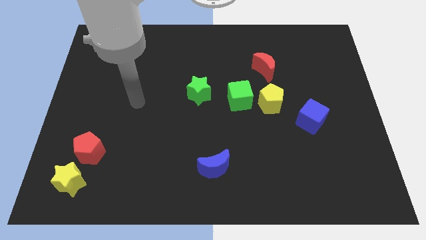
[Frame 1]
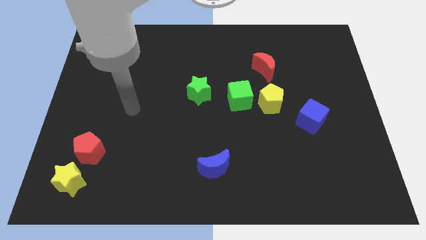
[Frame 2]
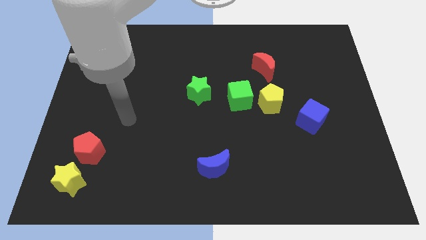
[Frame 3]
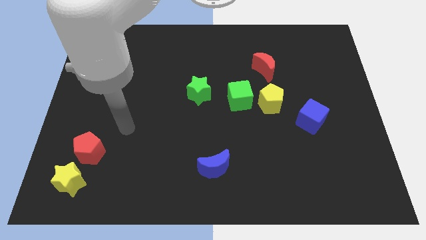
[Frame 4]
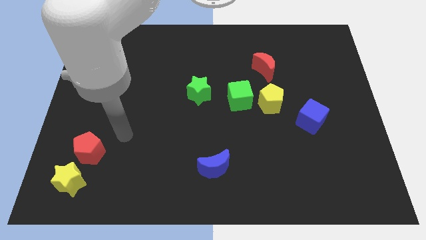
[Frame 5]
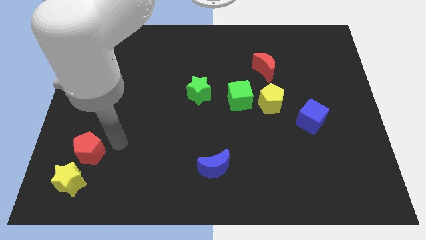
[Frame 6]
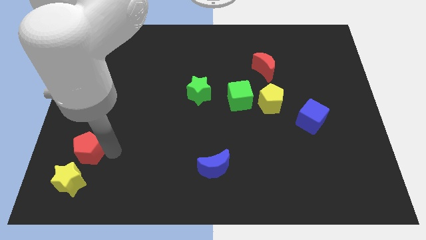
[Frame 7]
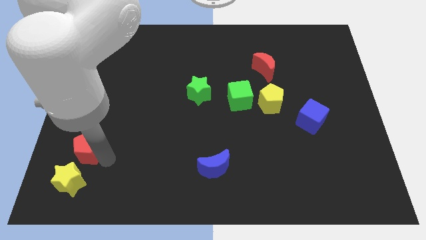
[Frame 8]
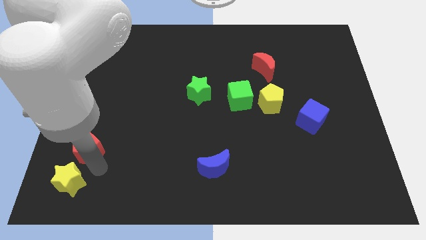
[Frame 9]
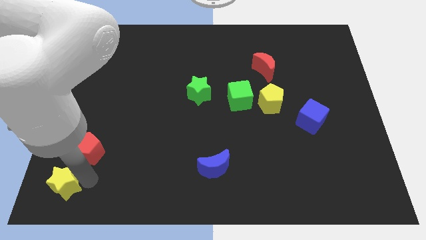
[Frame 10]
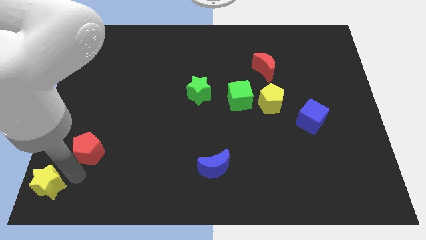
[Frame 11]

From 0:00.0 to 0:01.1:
pull the red pentagon apart from the yellow star

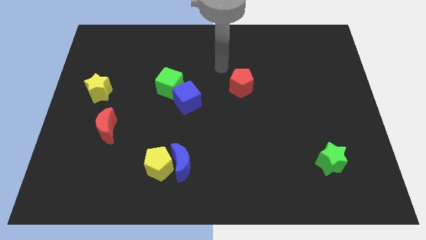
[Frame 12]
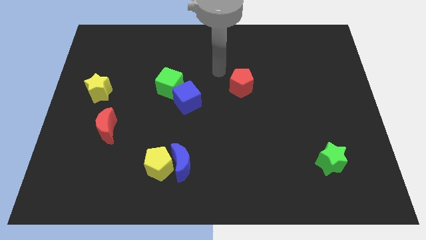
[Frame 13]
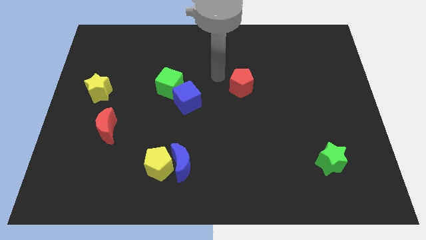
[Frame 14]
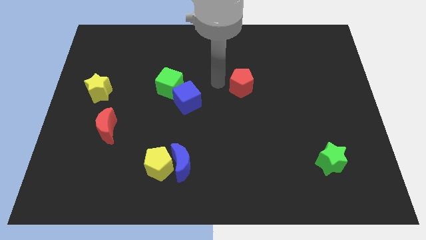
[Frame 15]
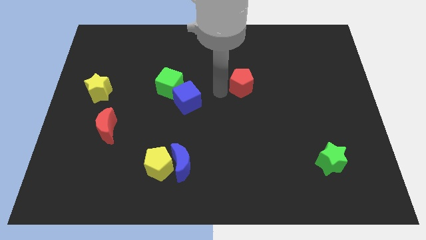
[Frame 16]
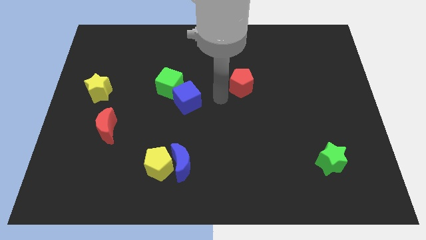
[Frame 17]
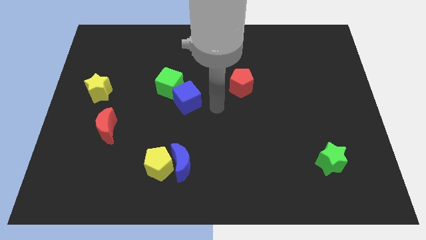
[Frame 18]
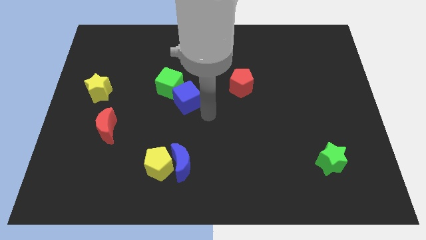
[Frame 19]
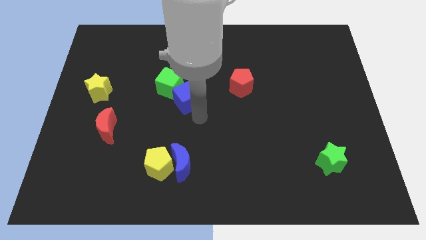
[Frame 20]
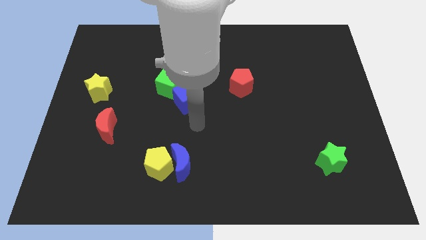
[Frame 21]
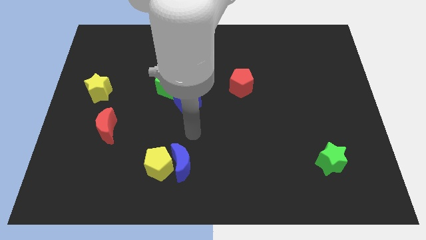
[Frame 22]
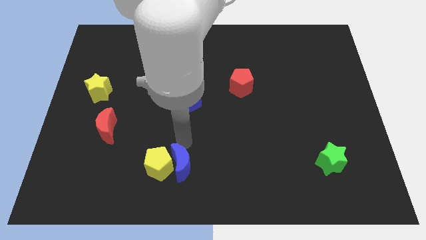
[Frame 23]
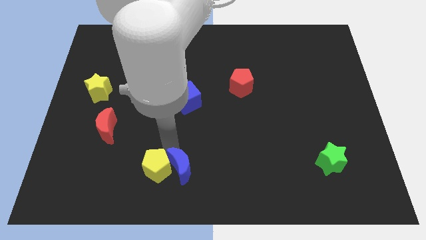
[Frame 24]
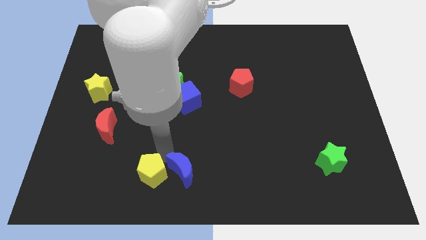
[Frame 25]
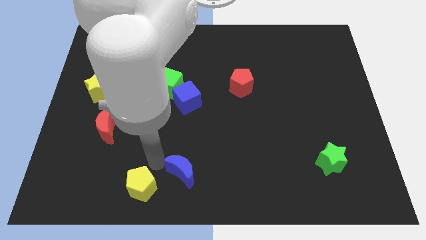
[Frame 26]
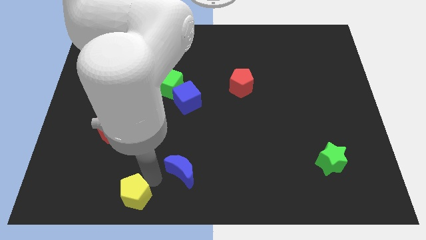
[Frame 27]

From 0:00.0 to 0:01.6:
move the blue moon away from the yellow pentagon

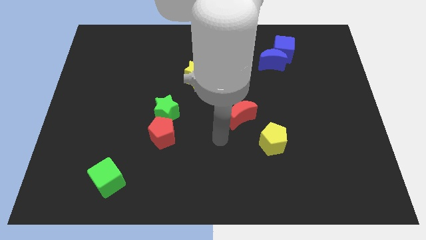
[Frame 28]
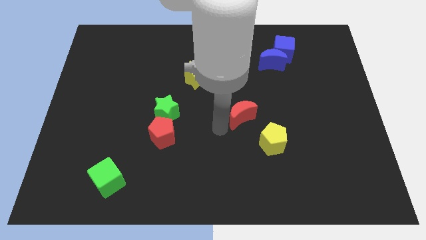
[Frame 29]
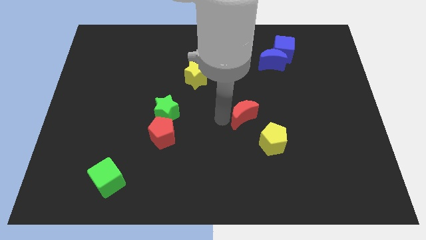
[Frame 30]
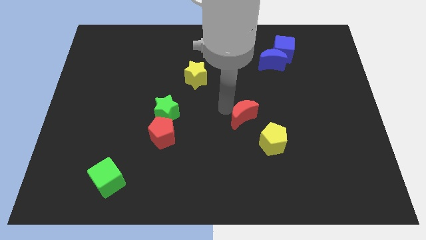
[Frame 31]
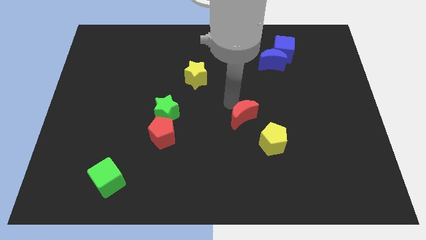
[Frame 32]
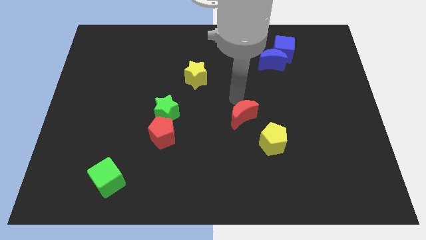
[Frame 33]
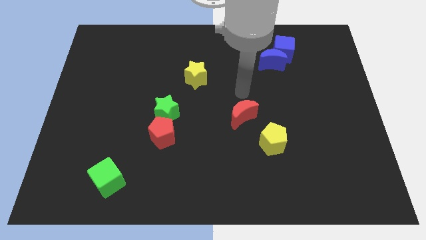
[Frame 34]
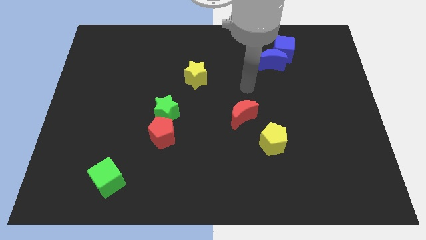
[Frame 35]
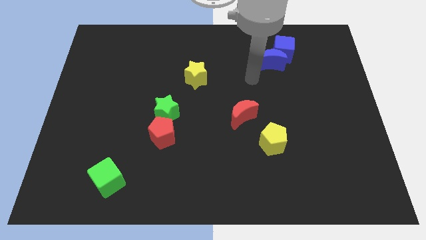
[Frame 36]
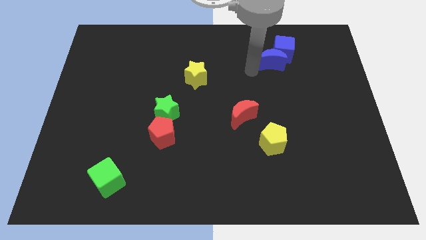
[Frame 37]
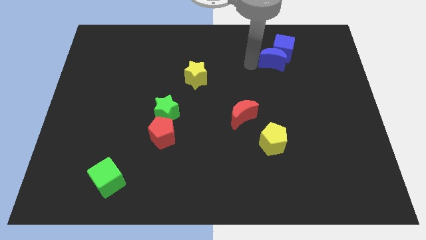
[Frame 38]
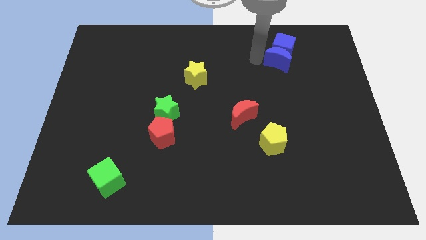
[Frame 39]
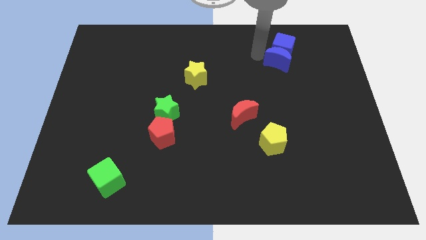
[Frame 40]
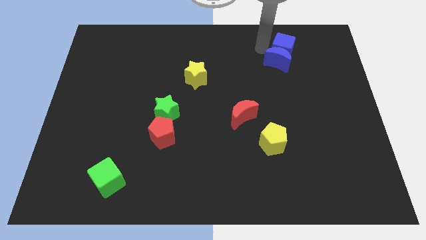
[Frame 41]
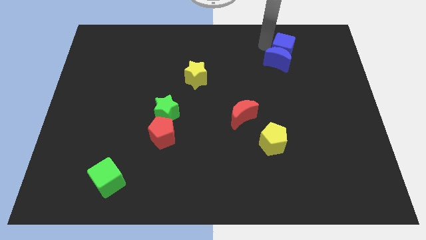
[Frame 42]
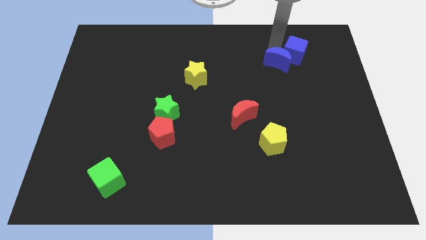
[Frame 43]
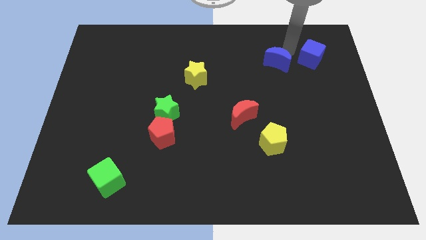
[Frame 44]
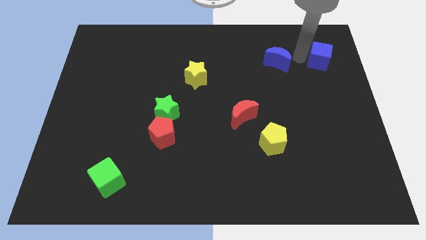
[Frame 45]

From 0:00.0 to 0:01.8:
move the blue moon away from the blue cube

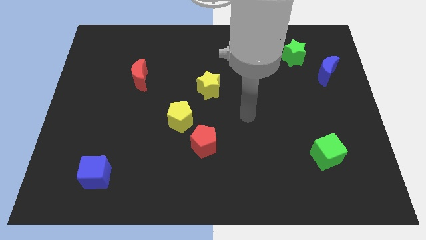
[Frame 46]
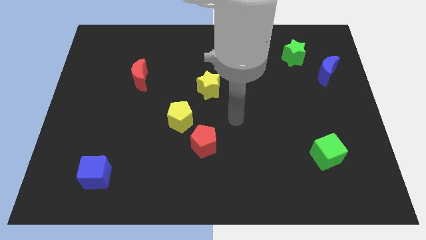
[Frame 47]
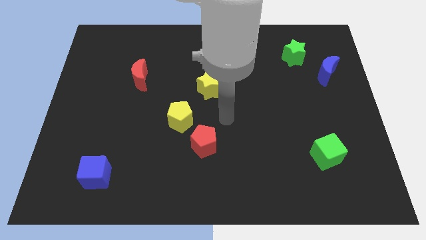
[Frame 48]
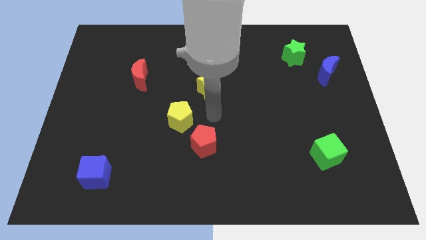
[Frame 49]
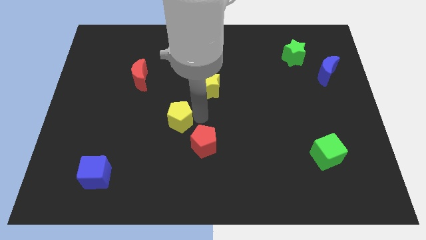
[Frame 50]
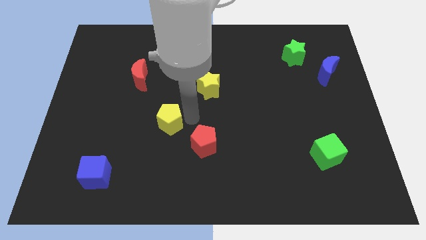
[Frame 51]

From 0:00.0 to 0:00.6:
separate the red pentagon from the yellow pentagon

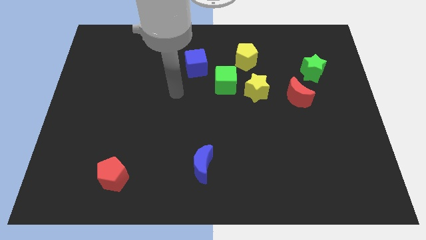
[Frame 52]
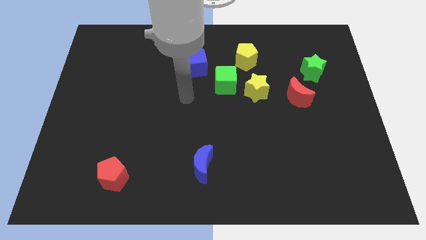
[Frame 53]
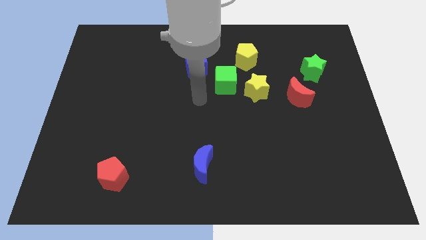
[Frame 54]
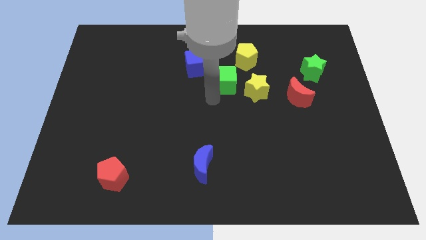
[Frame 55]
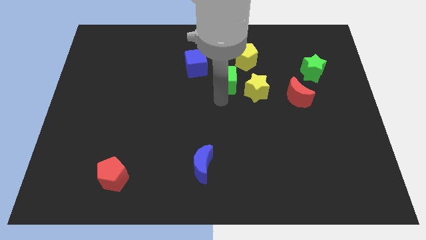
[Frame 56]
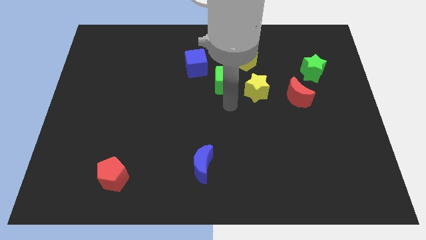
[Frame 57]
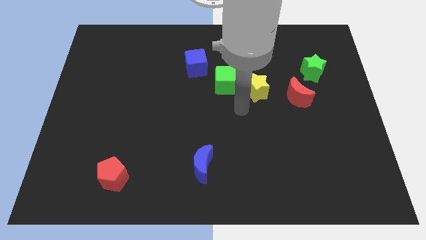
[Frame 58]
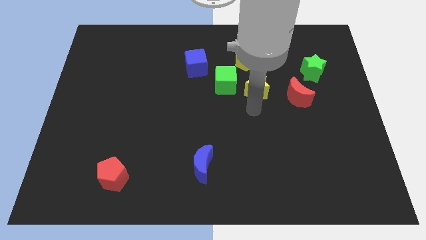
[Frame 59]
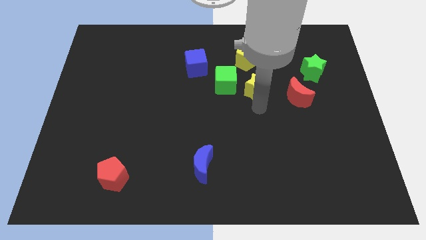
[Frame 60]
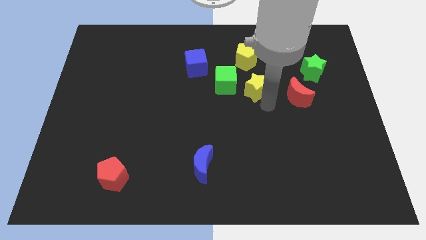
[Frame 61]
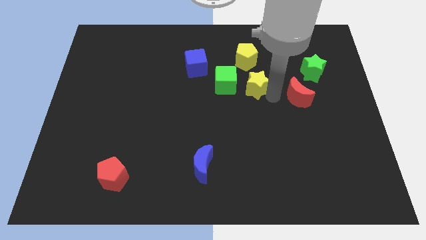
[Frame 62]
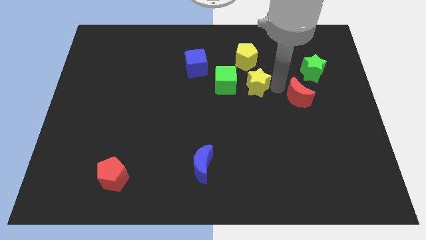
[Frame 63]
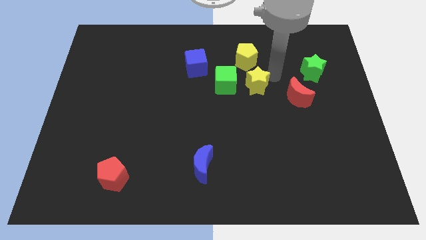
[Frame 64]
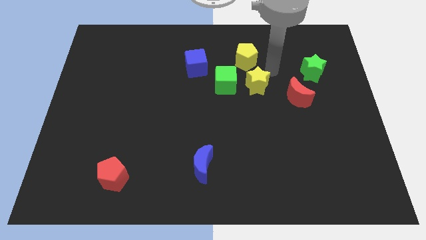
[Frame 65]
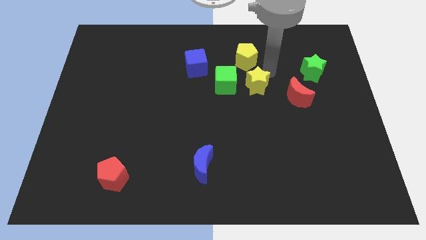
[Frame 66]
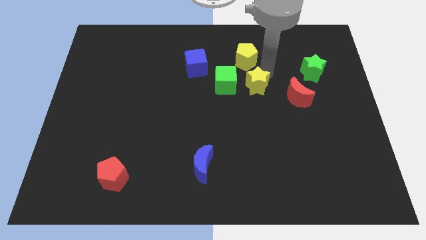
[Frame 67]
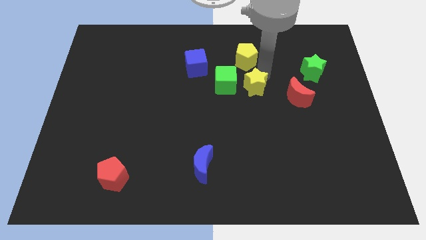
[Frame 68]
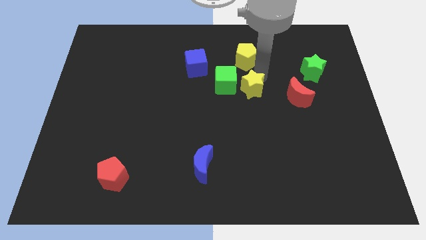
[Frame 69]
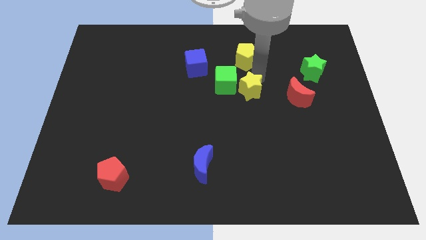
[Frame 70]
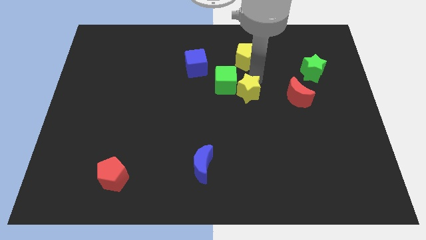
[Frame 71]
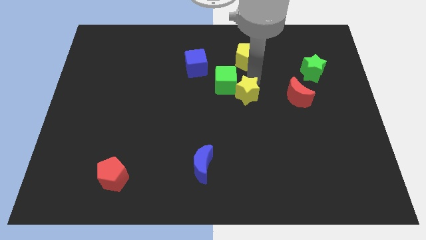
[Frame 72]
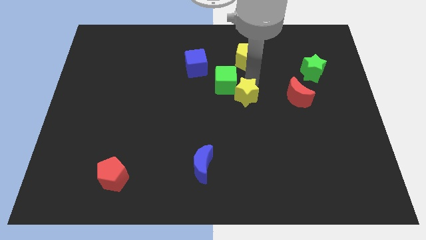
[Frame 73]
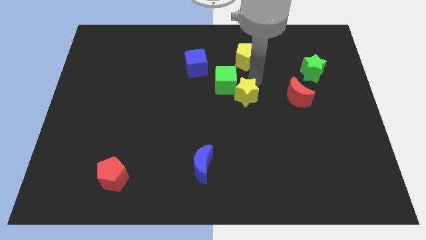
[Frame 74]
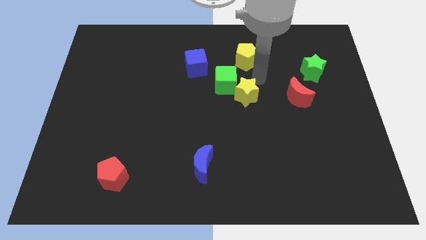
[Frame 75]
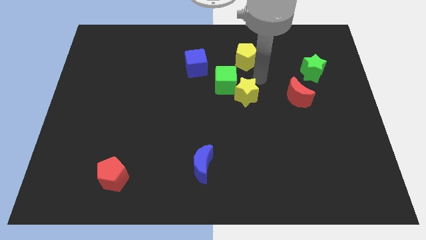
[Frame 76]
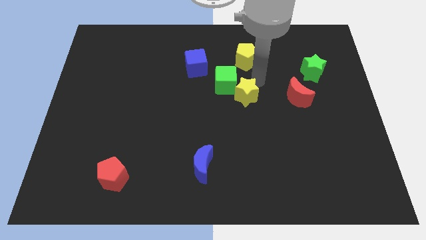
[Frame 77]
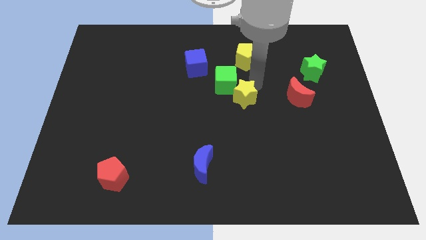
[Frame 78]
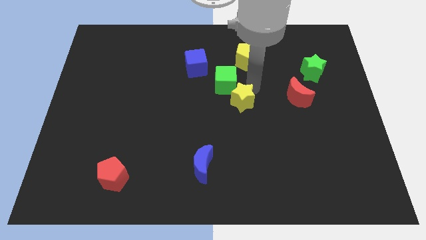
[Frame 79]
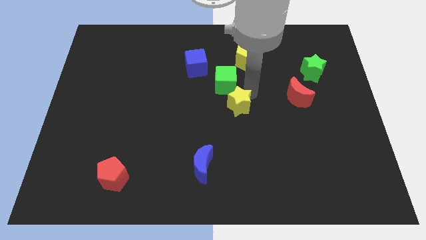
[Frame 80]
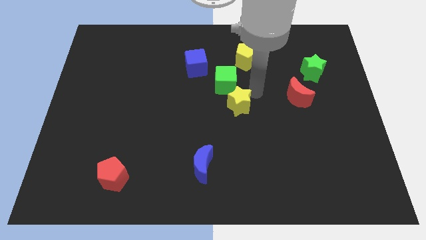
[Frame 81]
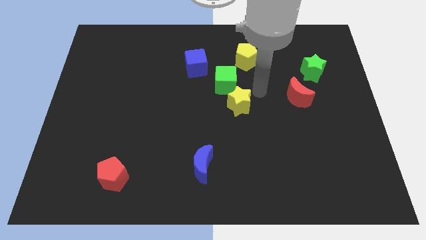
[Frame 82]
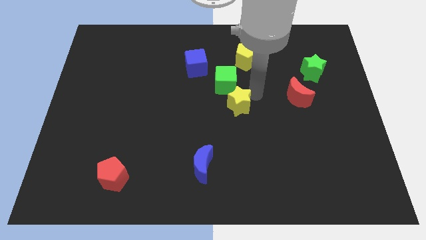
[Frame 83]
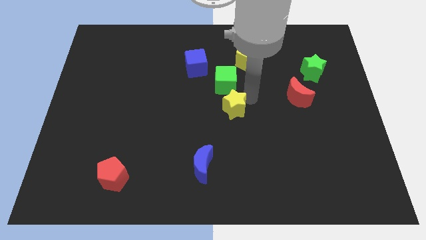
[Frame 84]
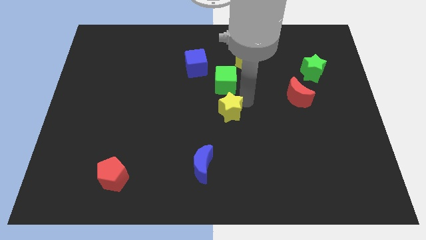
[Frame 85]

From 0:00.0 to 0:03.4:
move the yellow star away from the green cube and red moon

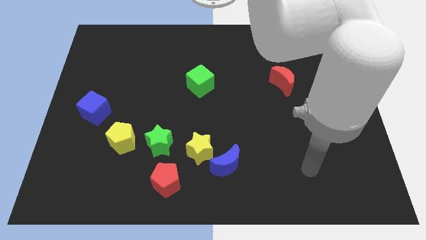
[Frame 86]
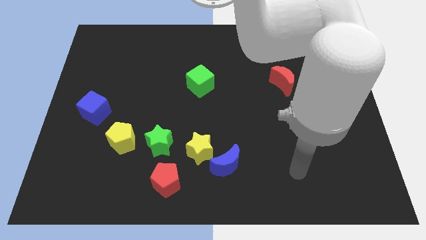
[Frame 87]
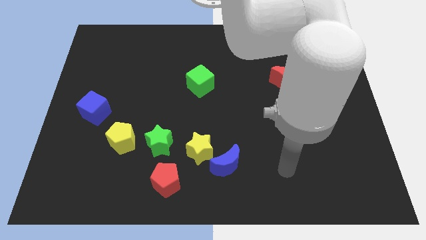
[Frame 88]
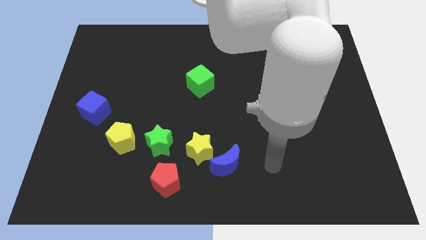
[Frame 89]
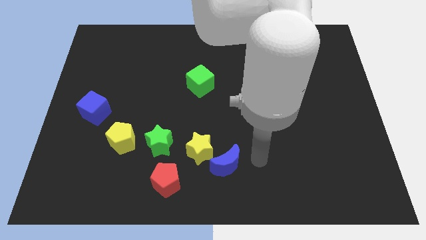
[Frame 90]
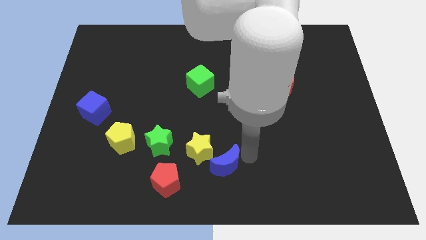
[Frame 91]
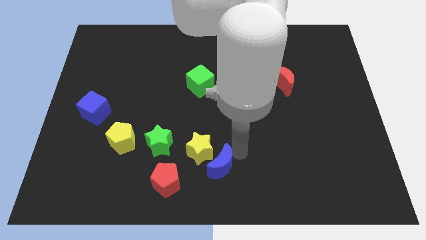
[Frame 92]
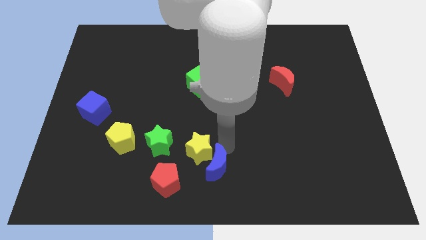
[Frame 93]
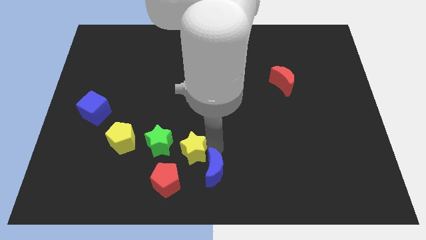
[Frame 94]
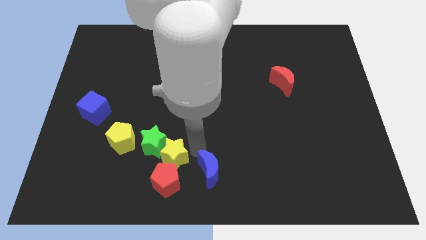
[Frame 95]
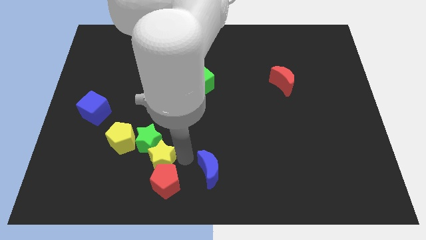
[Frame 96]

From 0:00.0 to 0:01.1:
move the blue moon away from the yellow star
